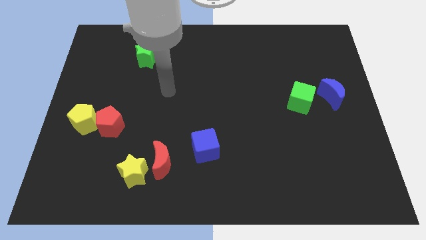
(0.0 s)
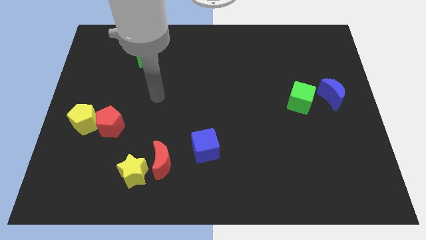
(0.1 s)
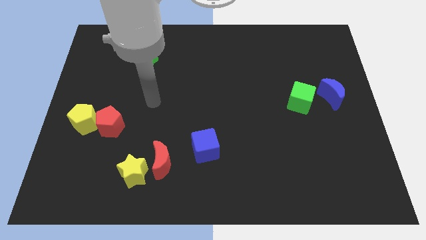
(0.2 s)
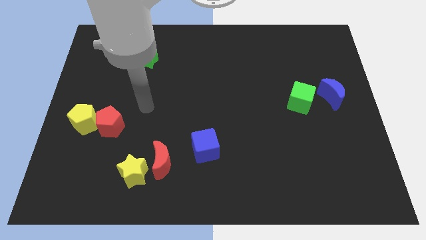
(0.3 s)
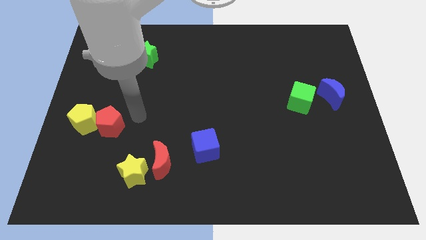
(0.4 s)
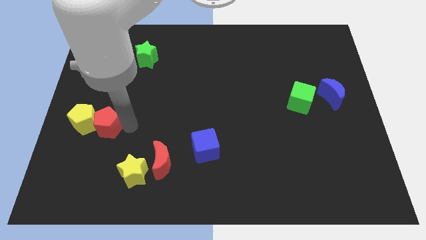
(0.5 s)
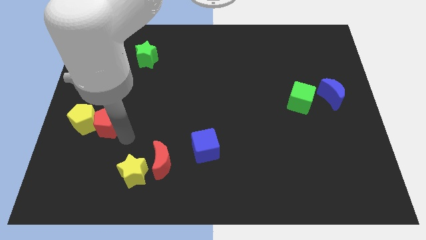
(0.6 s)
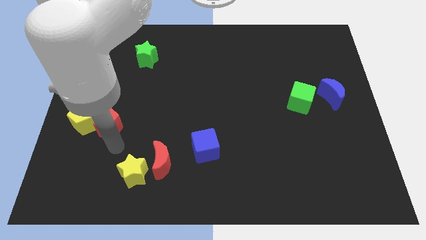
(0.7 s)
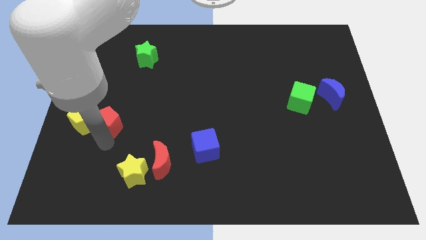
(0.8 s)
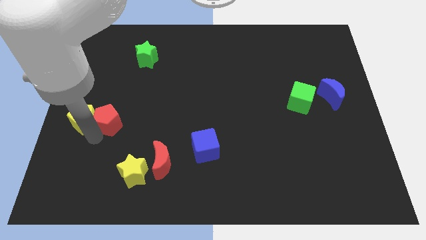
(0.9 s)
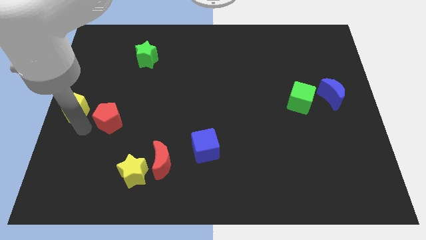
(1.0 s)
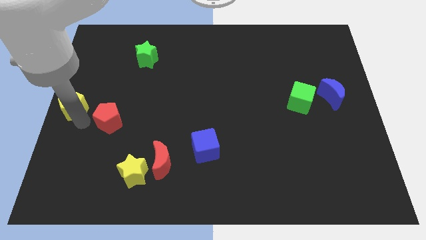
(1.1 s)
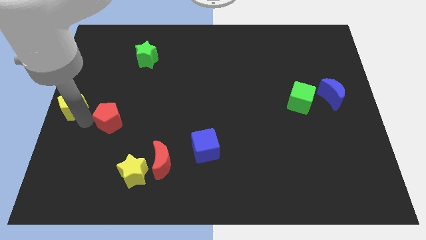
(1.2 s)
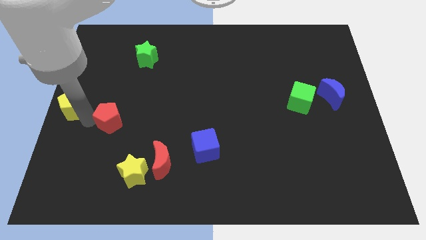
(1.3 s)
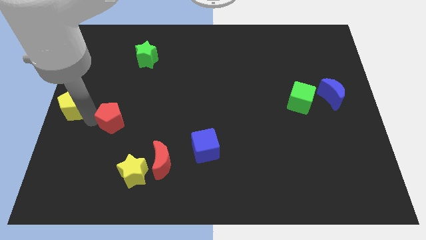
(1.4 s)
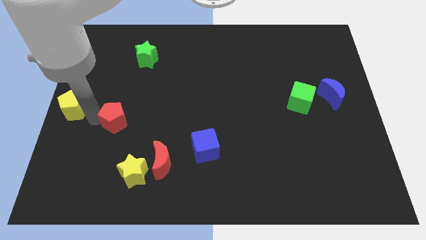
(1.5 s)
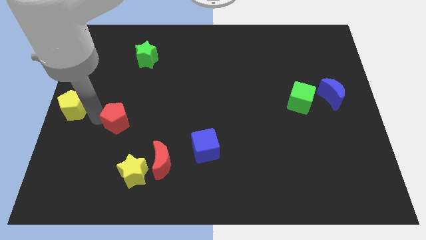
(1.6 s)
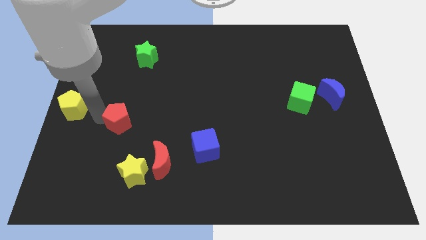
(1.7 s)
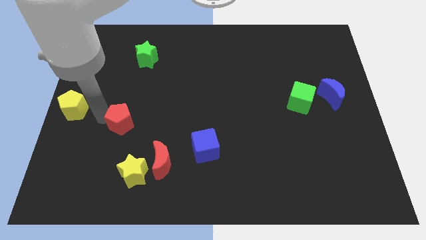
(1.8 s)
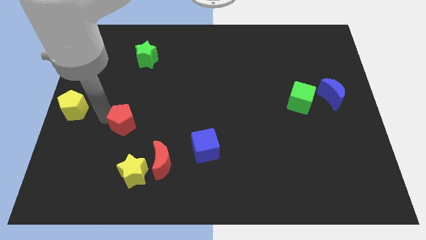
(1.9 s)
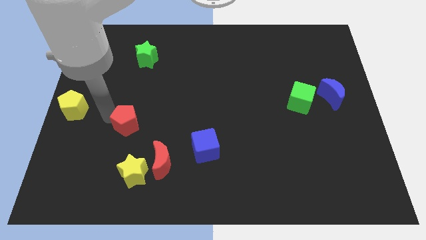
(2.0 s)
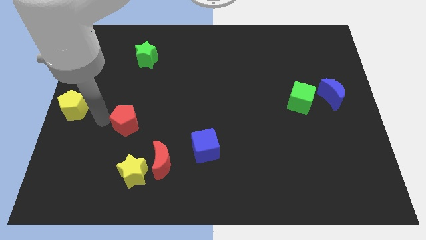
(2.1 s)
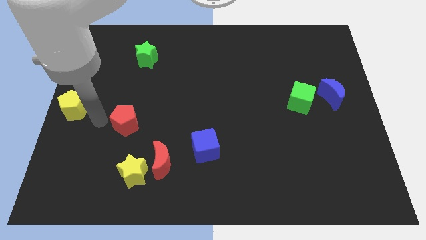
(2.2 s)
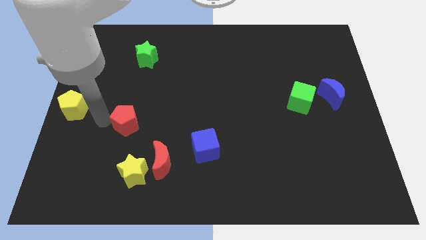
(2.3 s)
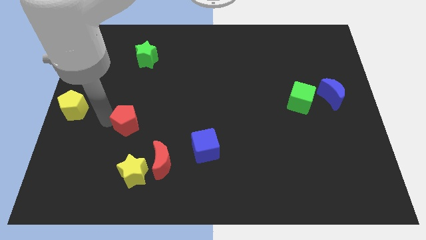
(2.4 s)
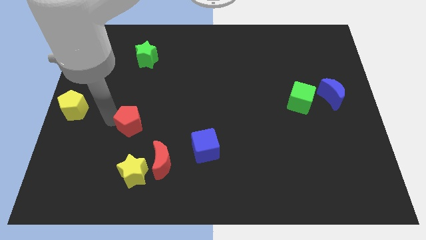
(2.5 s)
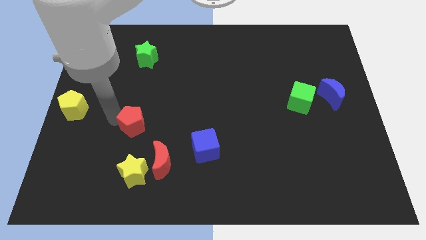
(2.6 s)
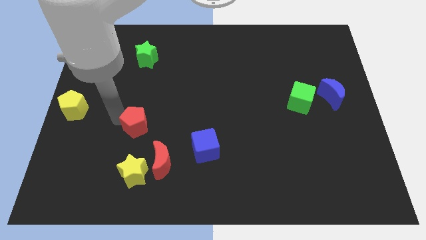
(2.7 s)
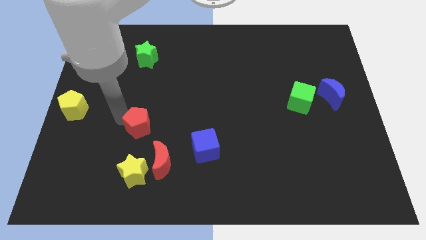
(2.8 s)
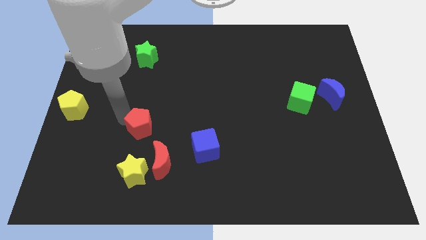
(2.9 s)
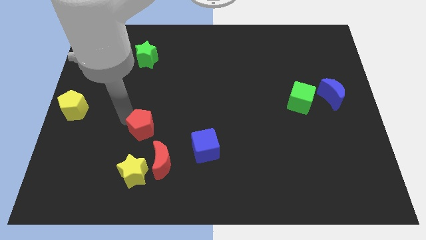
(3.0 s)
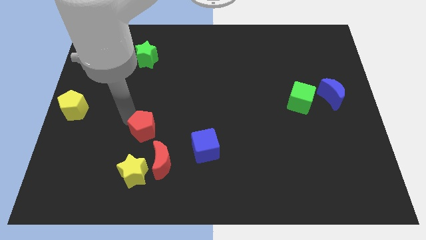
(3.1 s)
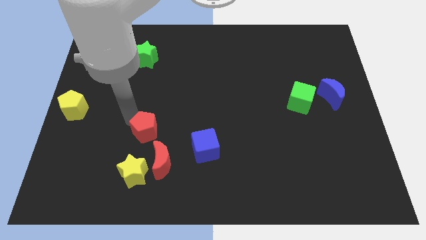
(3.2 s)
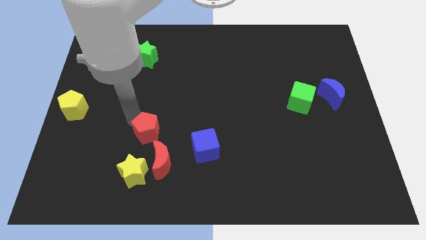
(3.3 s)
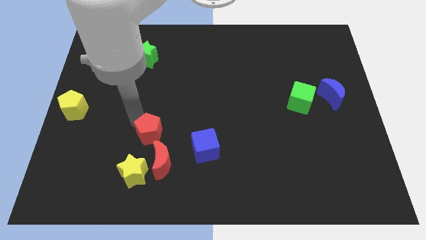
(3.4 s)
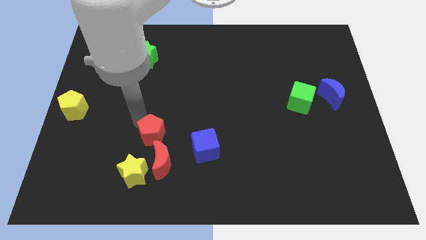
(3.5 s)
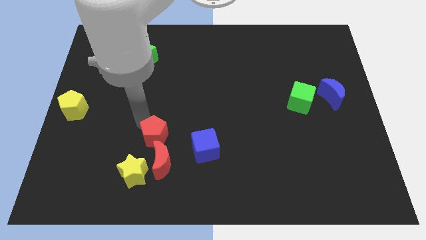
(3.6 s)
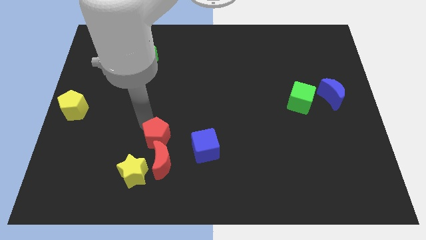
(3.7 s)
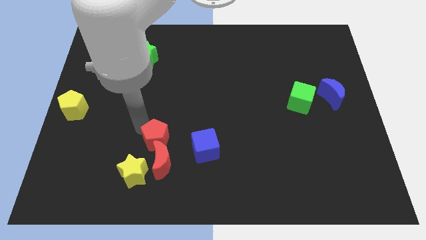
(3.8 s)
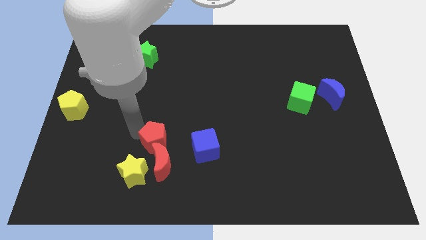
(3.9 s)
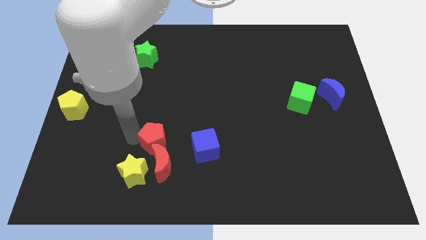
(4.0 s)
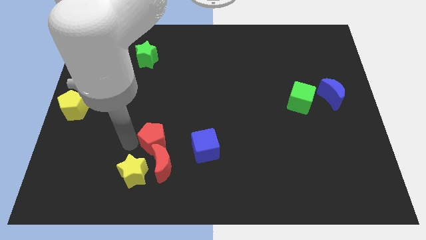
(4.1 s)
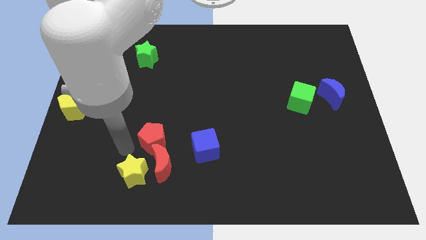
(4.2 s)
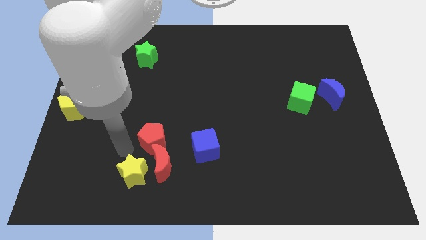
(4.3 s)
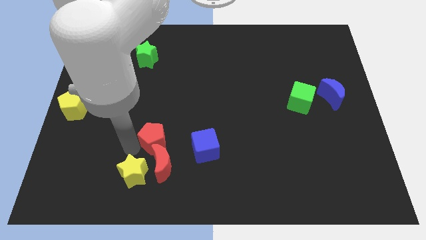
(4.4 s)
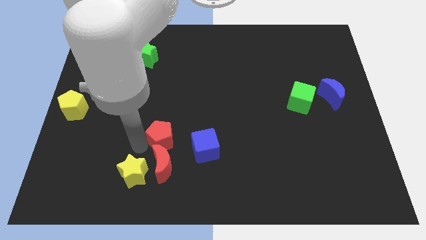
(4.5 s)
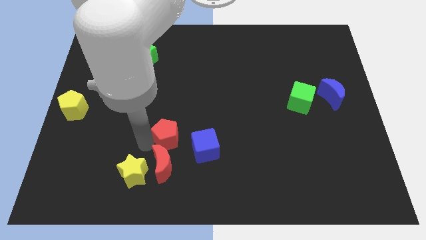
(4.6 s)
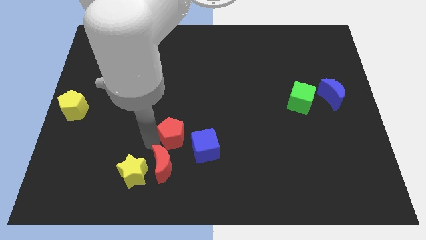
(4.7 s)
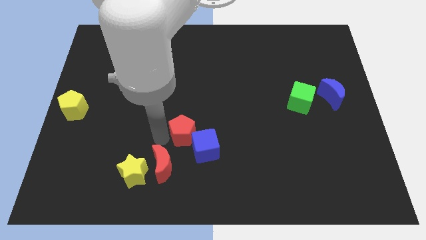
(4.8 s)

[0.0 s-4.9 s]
push the red pentagon towards the blue cube

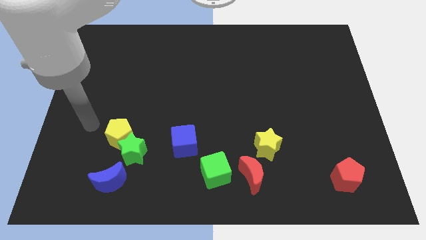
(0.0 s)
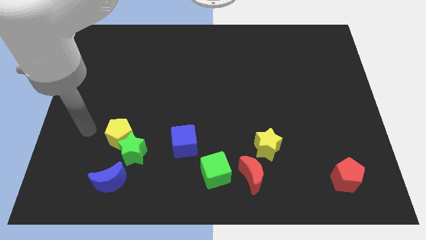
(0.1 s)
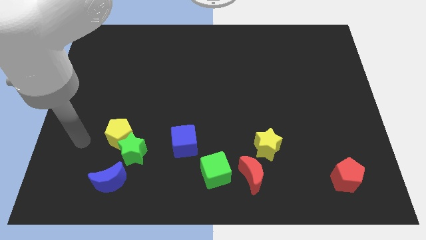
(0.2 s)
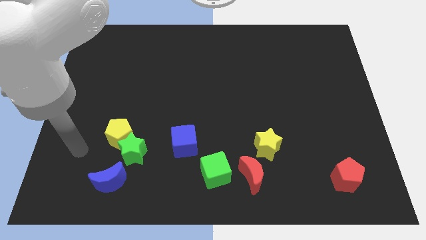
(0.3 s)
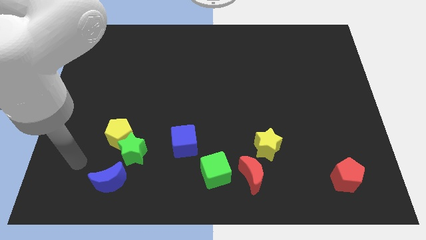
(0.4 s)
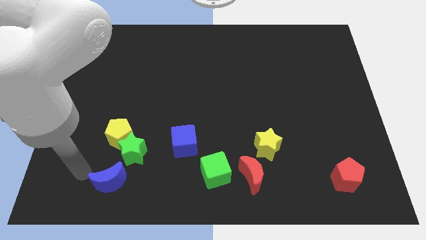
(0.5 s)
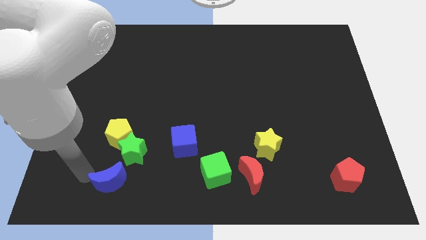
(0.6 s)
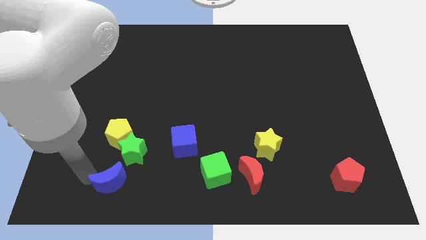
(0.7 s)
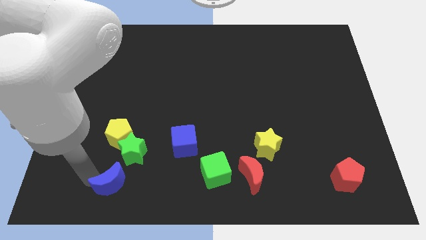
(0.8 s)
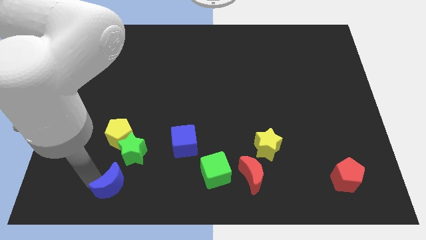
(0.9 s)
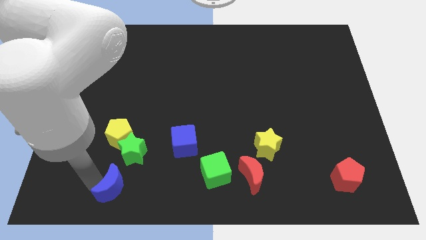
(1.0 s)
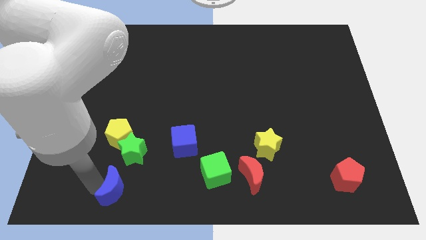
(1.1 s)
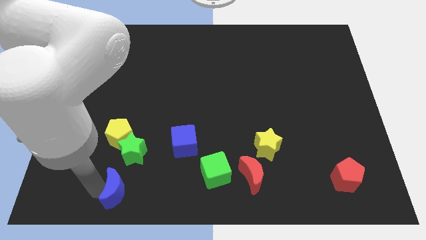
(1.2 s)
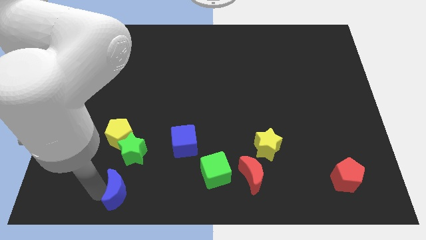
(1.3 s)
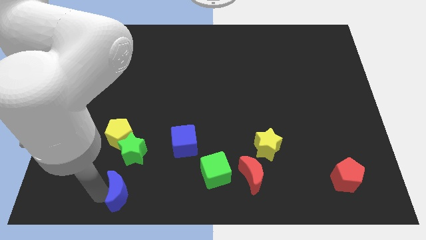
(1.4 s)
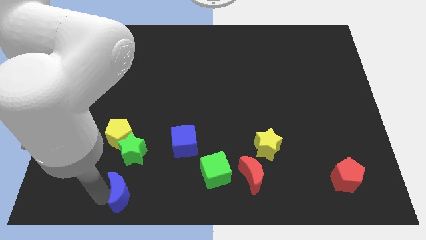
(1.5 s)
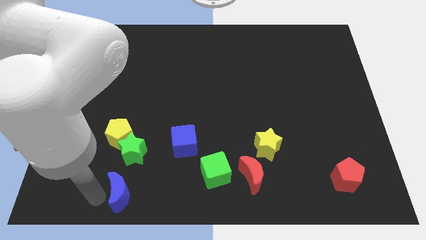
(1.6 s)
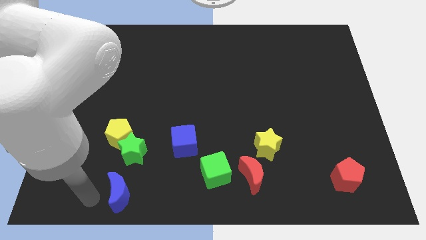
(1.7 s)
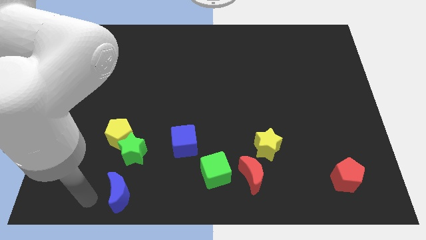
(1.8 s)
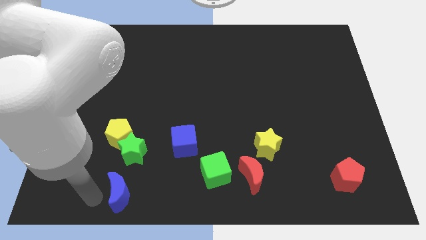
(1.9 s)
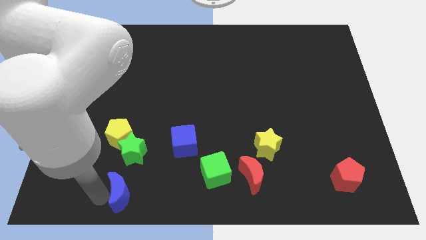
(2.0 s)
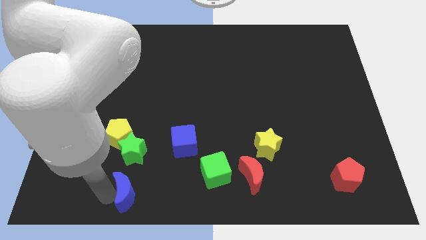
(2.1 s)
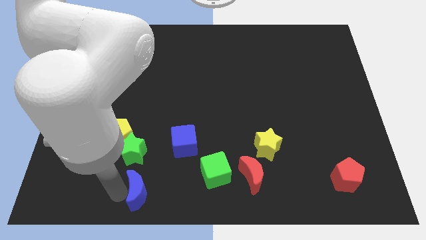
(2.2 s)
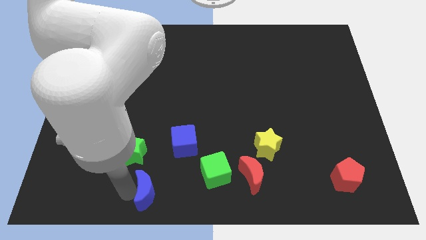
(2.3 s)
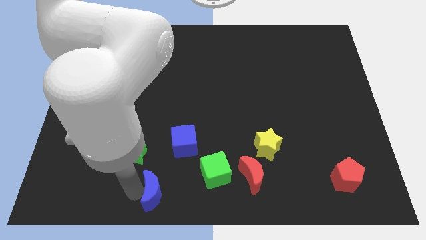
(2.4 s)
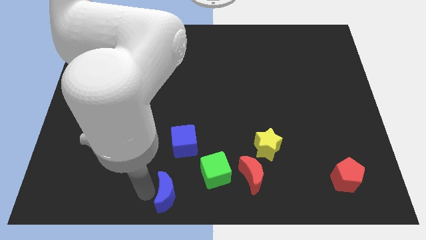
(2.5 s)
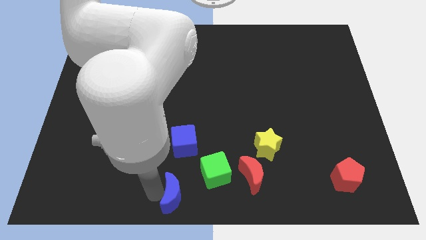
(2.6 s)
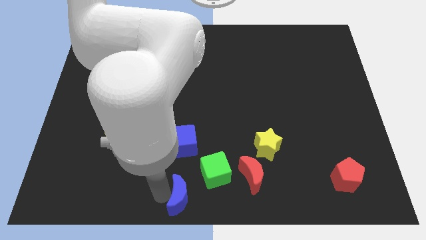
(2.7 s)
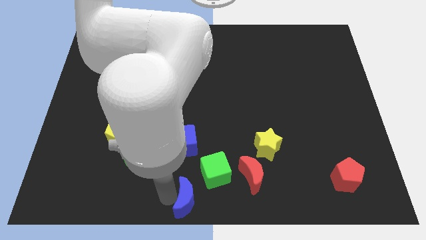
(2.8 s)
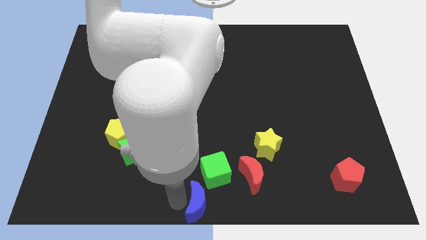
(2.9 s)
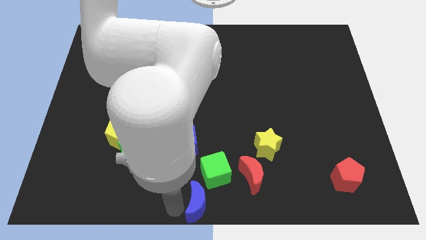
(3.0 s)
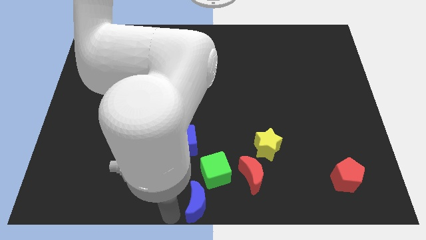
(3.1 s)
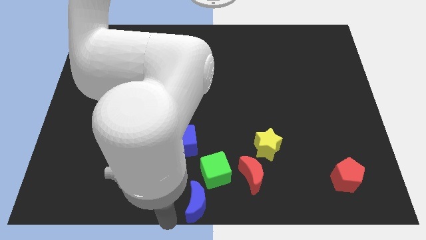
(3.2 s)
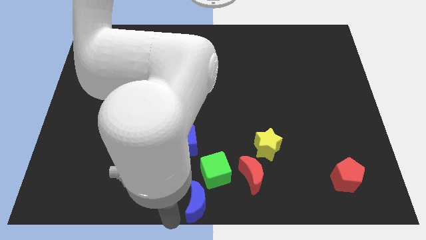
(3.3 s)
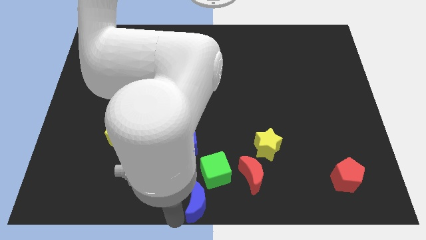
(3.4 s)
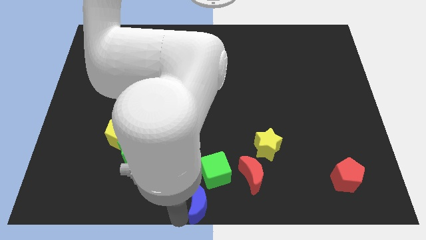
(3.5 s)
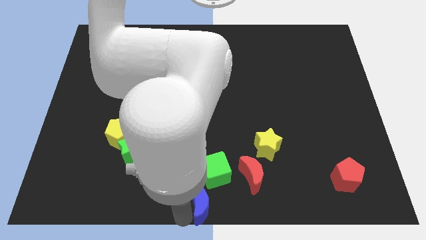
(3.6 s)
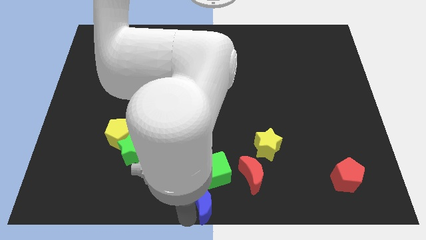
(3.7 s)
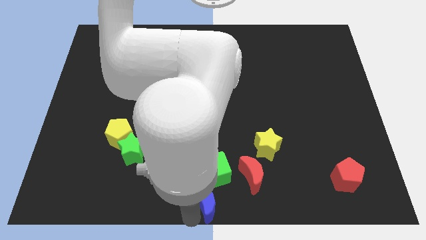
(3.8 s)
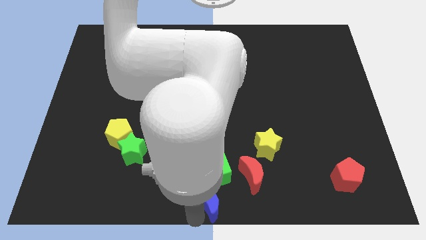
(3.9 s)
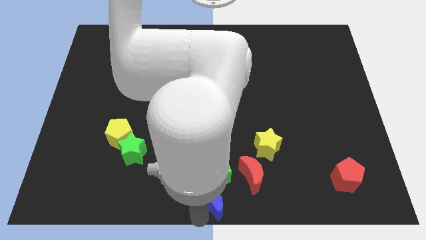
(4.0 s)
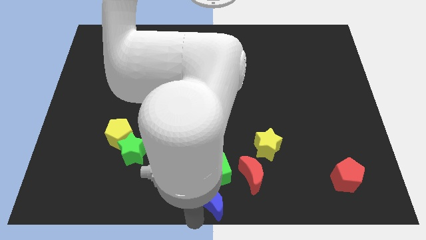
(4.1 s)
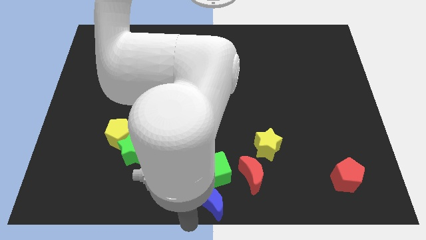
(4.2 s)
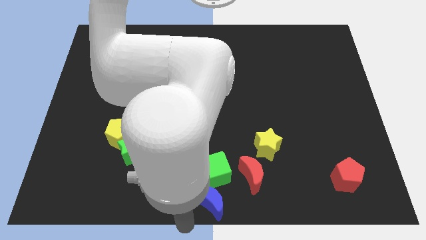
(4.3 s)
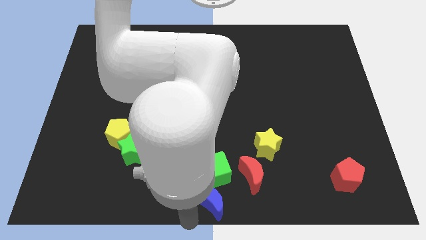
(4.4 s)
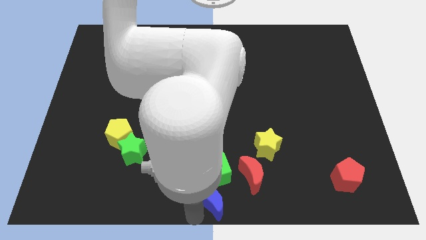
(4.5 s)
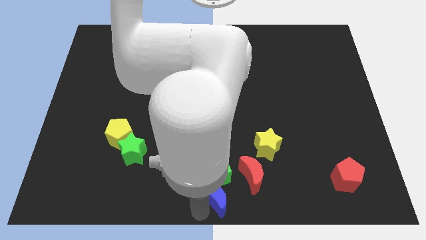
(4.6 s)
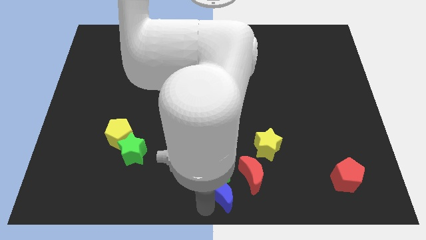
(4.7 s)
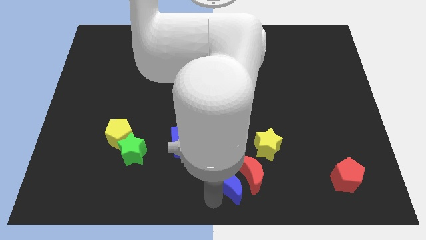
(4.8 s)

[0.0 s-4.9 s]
slide the blue moon to the red moon
